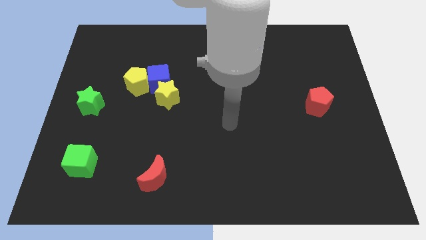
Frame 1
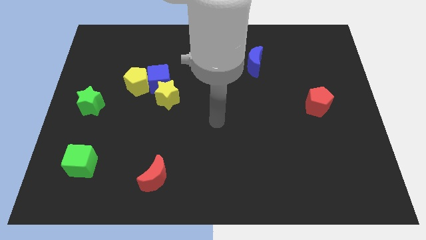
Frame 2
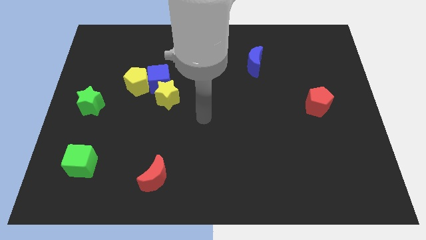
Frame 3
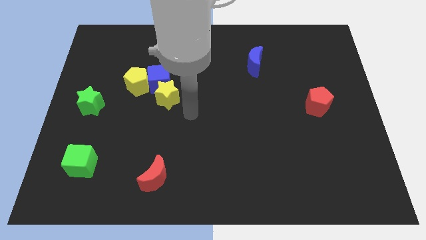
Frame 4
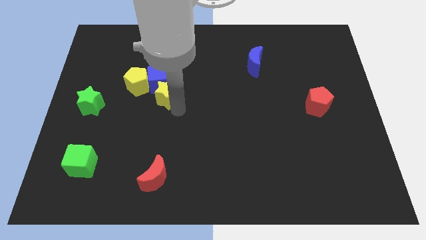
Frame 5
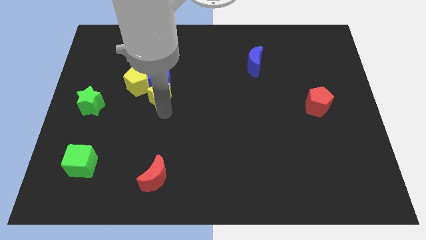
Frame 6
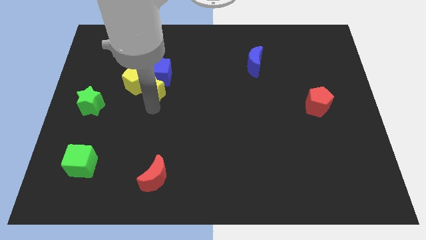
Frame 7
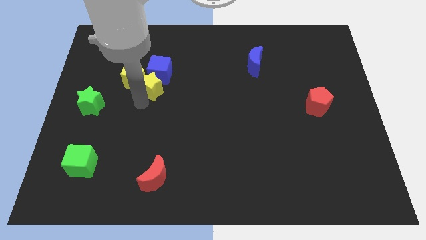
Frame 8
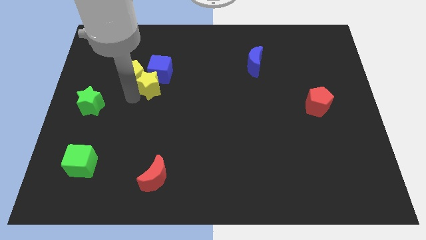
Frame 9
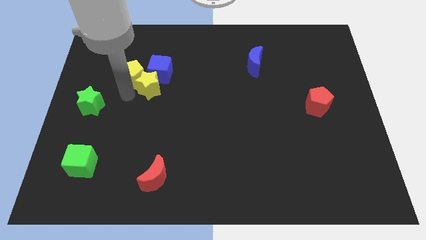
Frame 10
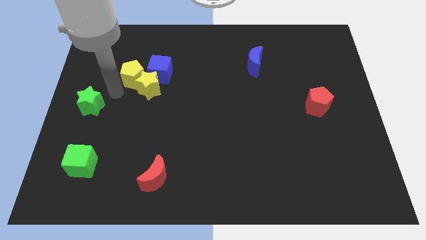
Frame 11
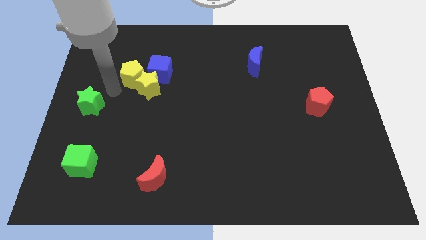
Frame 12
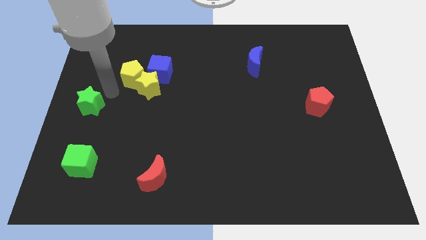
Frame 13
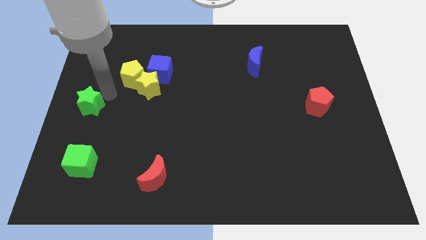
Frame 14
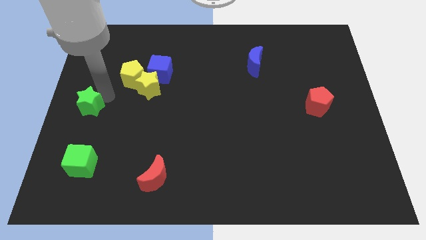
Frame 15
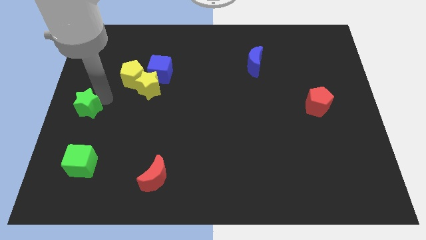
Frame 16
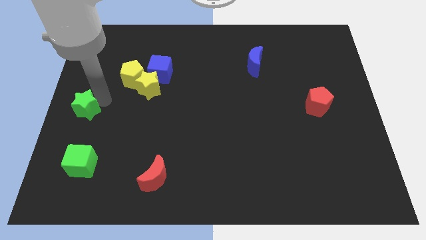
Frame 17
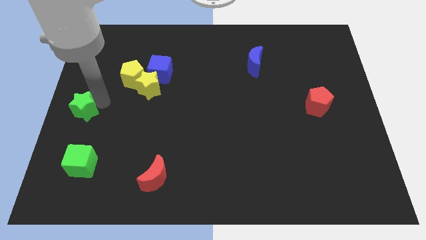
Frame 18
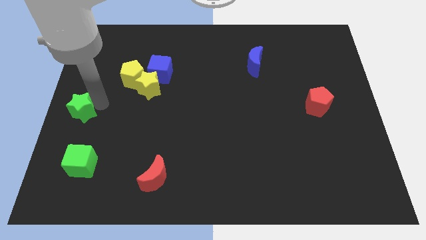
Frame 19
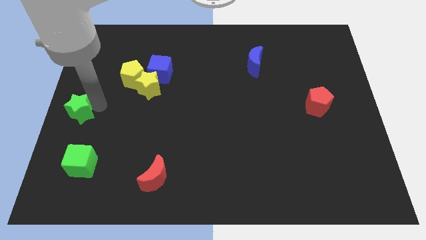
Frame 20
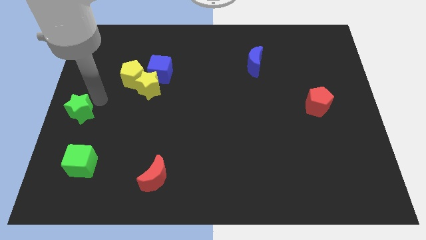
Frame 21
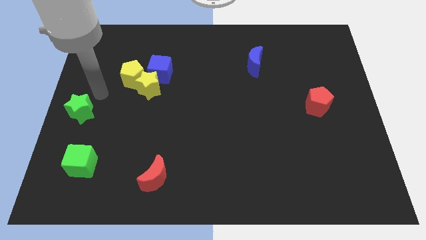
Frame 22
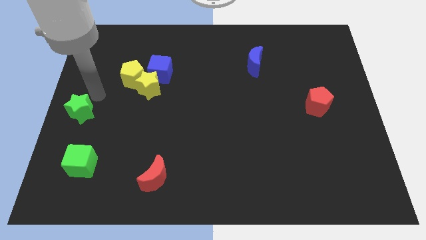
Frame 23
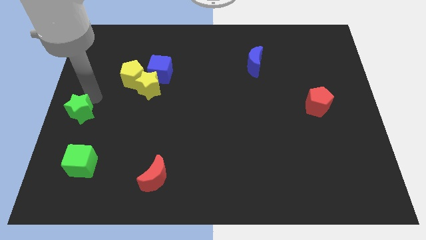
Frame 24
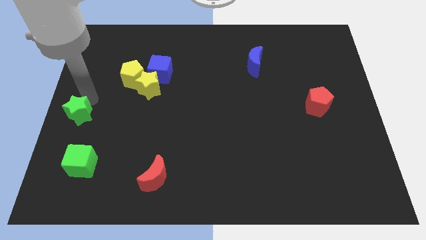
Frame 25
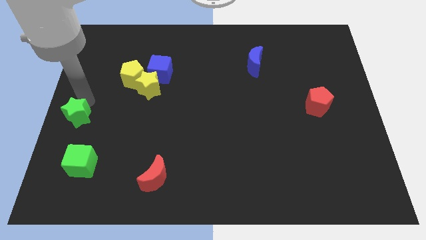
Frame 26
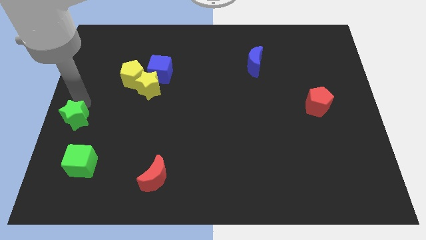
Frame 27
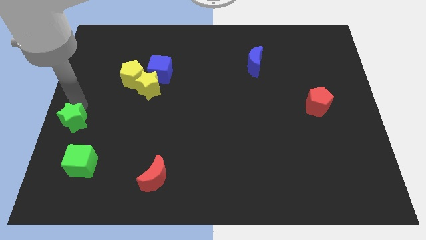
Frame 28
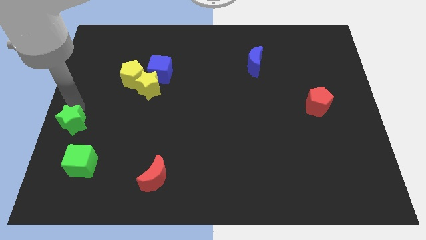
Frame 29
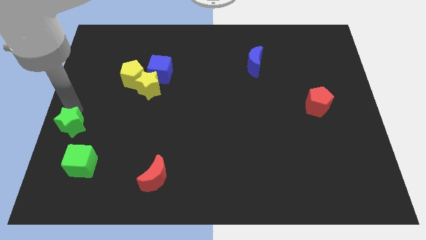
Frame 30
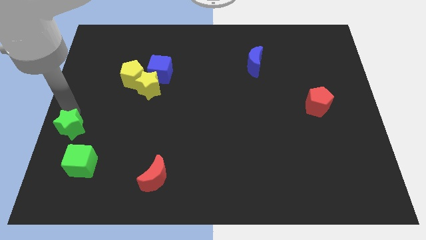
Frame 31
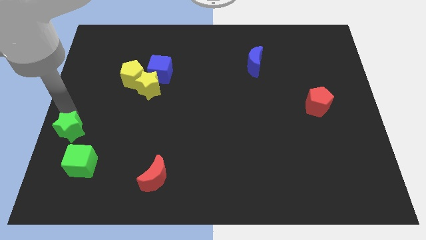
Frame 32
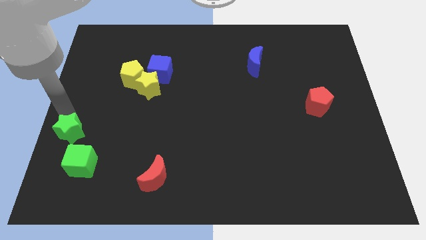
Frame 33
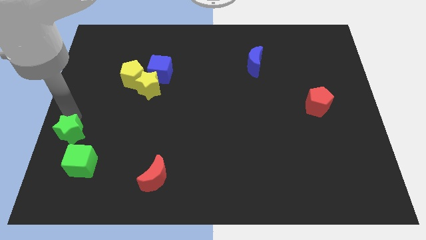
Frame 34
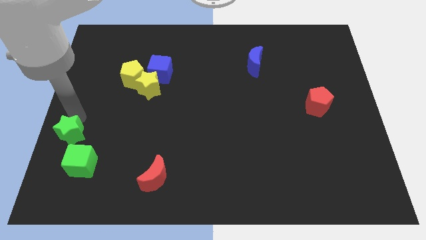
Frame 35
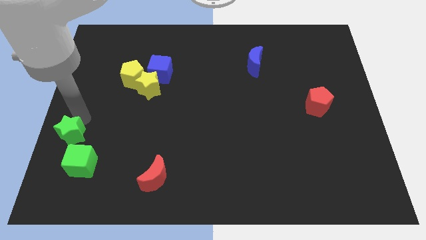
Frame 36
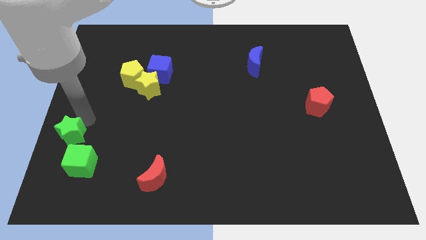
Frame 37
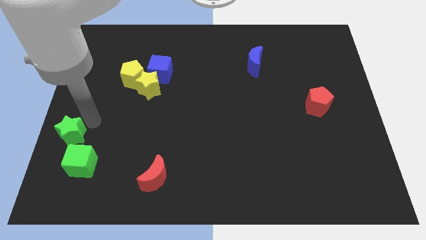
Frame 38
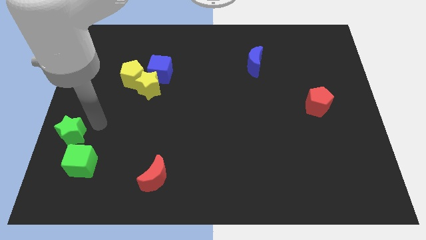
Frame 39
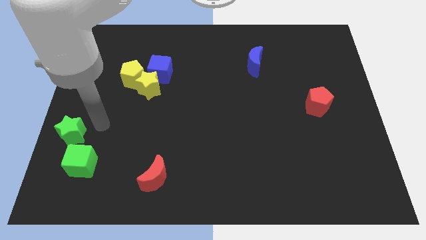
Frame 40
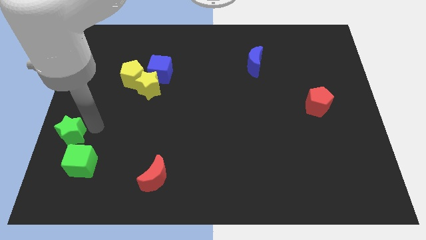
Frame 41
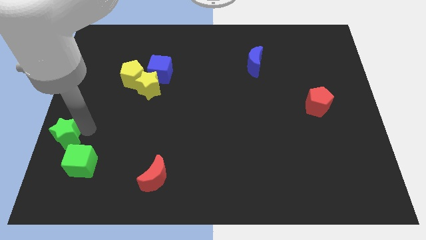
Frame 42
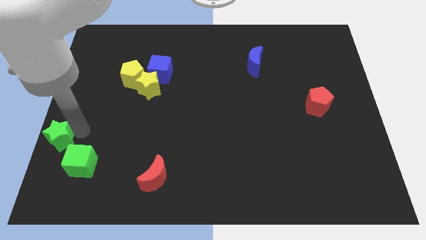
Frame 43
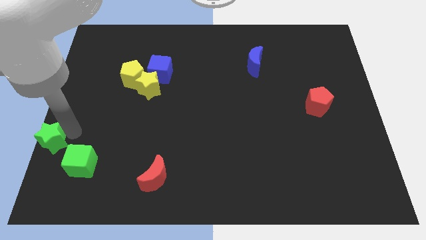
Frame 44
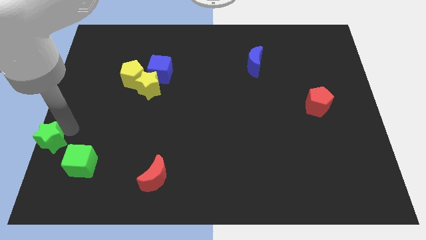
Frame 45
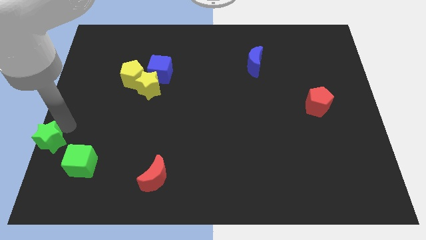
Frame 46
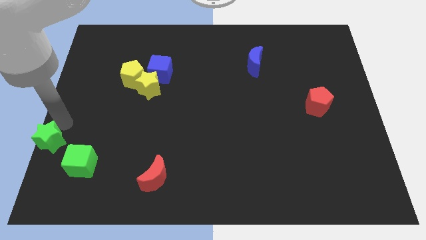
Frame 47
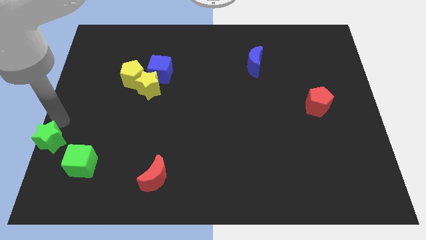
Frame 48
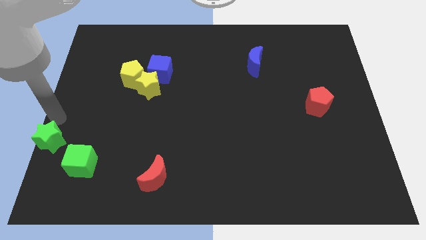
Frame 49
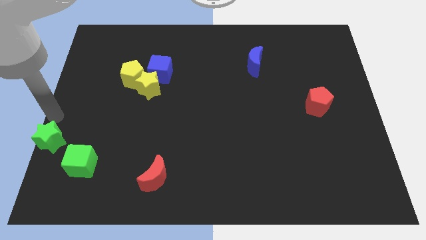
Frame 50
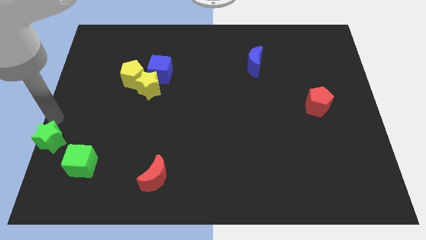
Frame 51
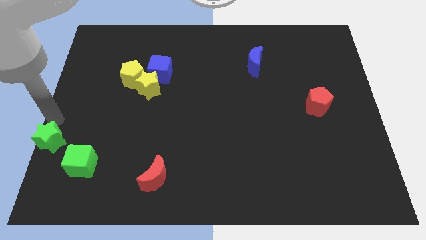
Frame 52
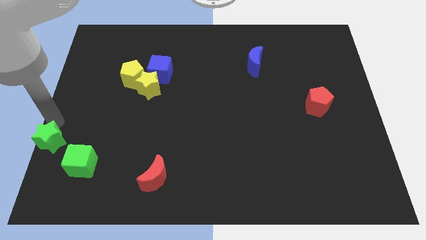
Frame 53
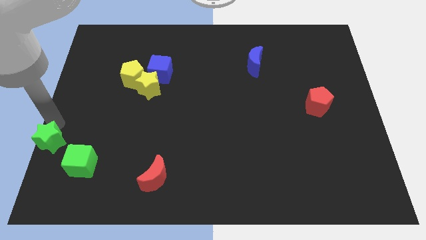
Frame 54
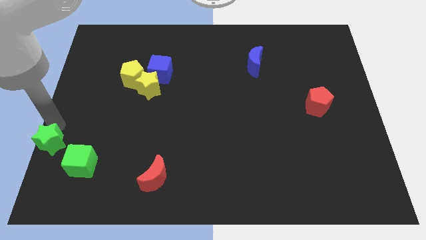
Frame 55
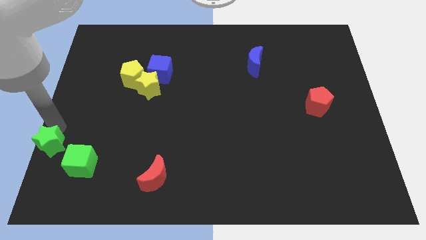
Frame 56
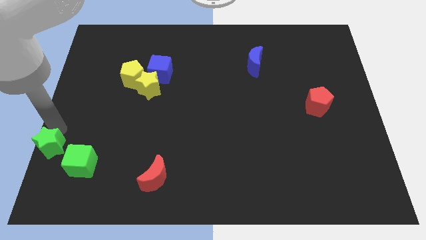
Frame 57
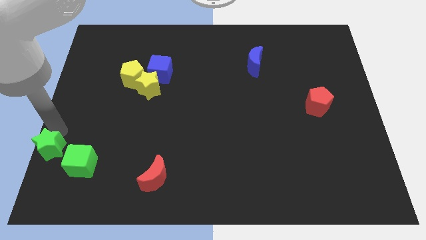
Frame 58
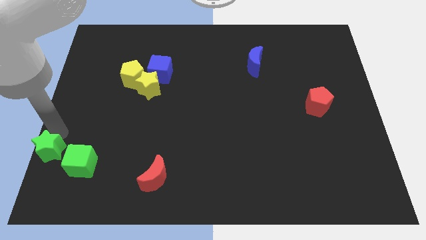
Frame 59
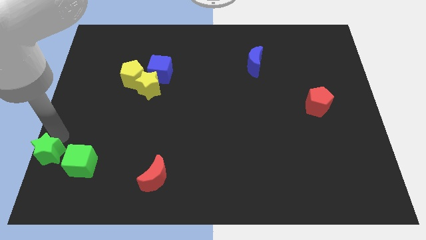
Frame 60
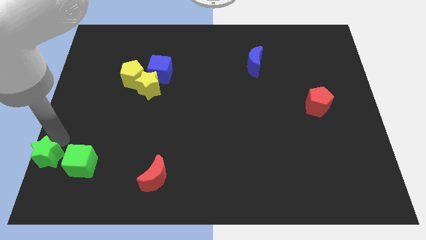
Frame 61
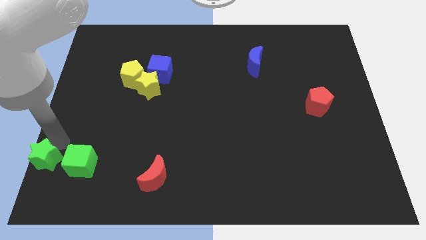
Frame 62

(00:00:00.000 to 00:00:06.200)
push the green star to the bottom left corner
